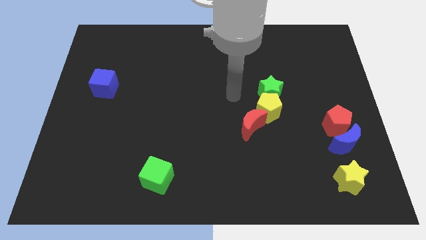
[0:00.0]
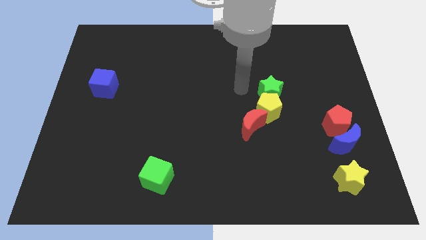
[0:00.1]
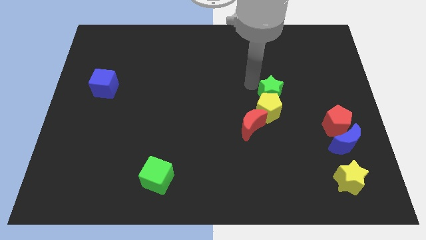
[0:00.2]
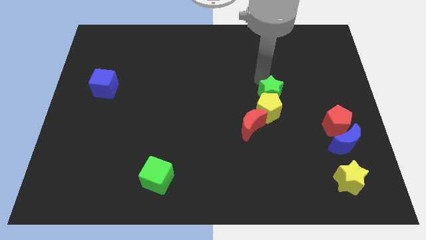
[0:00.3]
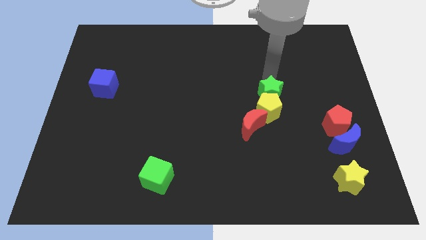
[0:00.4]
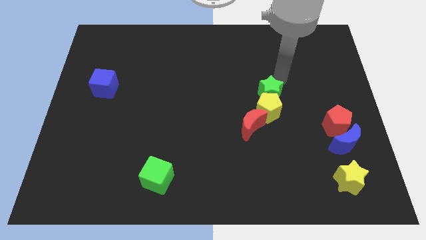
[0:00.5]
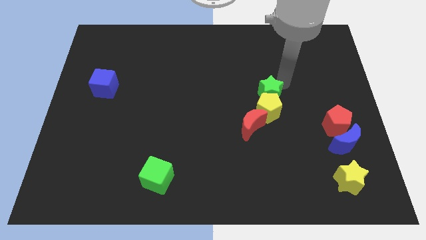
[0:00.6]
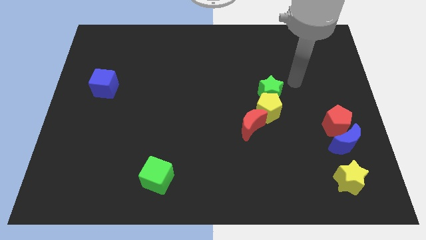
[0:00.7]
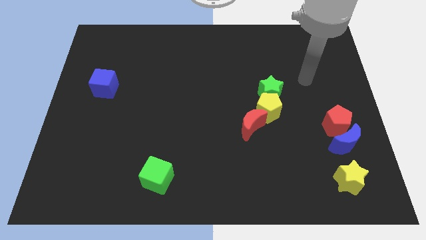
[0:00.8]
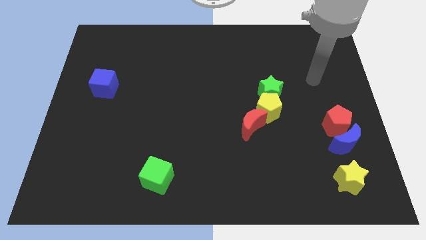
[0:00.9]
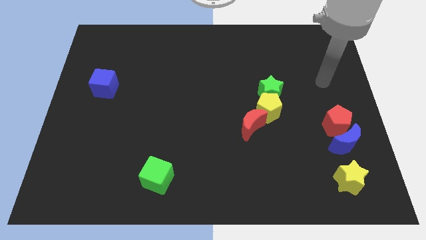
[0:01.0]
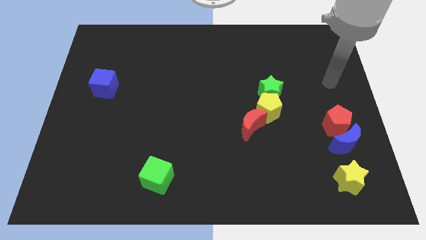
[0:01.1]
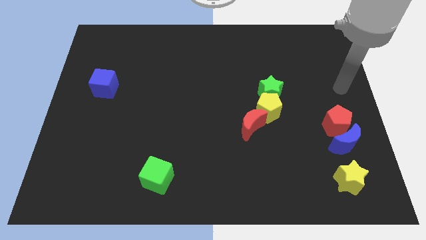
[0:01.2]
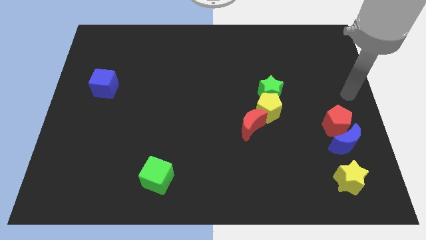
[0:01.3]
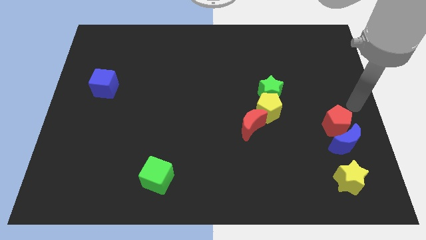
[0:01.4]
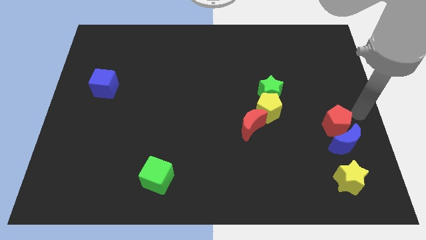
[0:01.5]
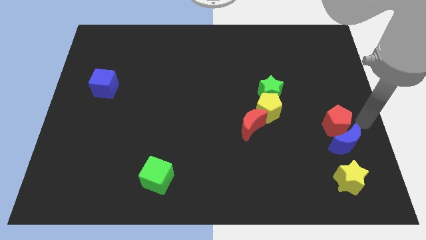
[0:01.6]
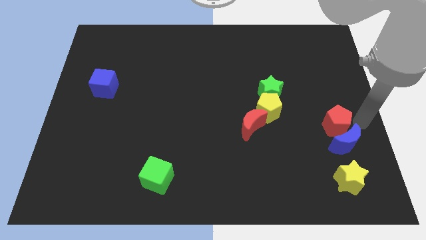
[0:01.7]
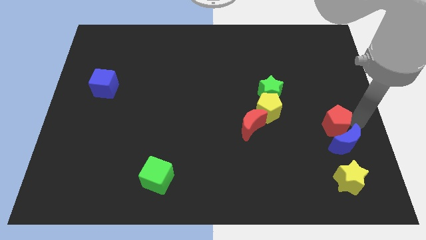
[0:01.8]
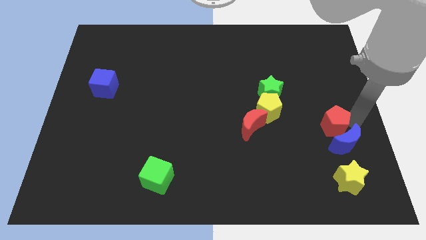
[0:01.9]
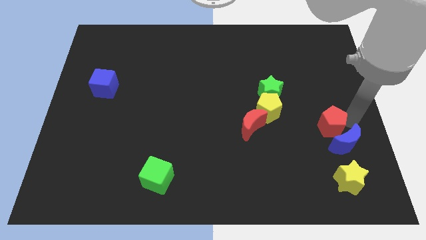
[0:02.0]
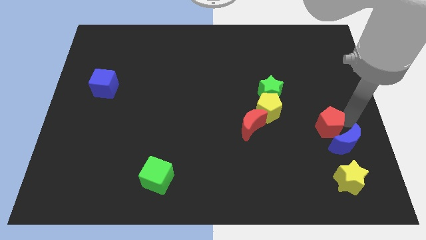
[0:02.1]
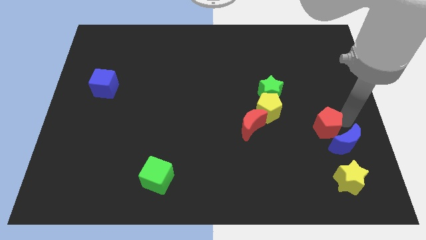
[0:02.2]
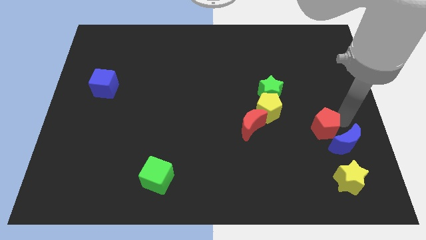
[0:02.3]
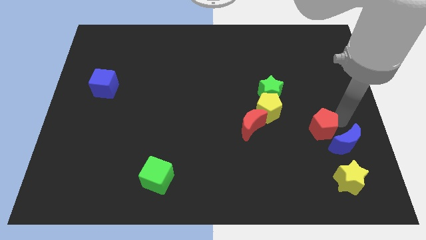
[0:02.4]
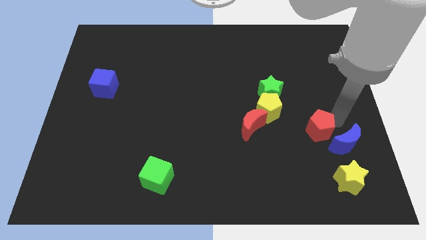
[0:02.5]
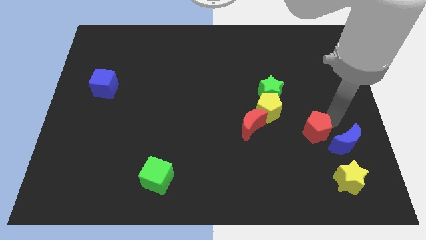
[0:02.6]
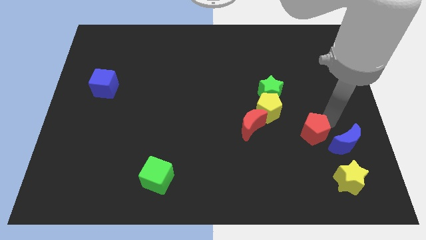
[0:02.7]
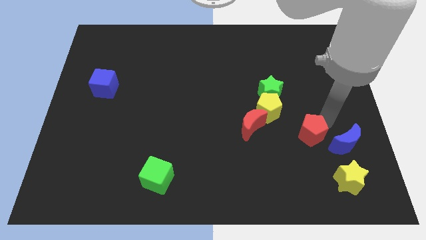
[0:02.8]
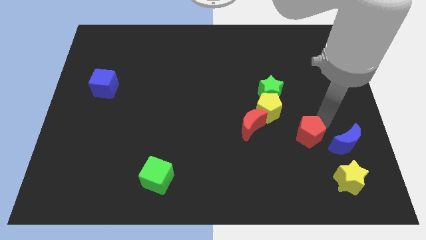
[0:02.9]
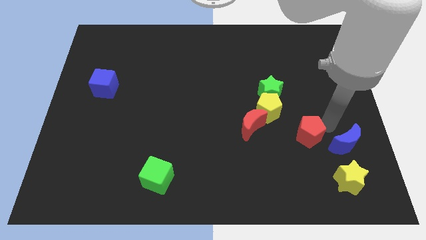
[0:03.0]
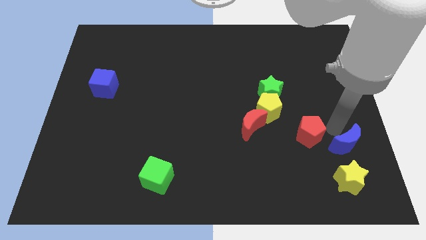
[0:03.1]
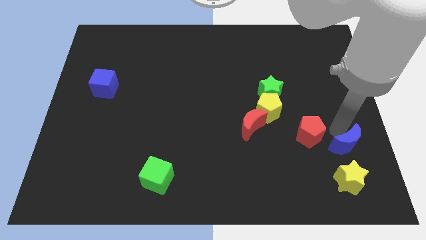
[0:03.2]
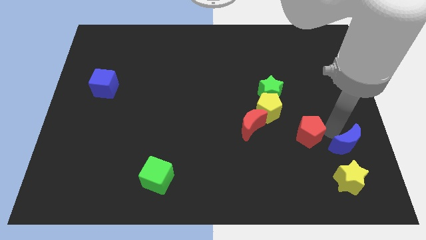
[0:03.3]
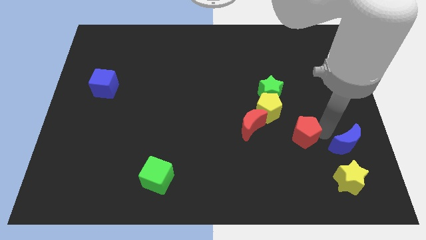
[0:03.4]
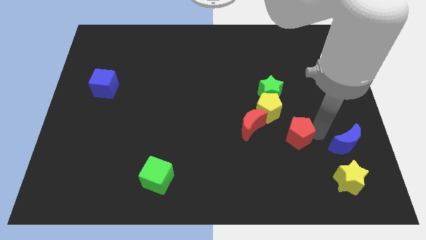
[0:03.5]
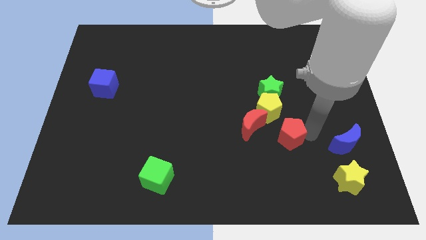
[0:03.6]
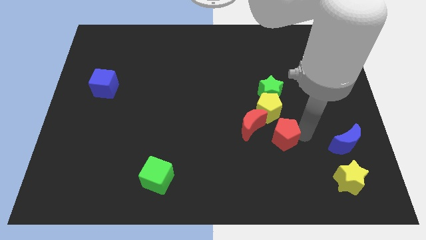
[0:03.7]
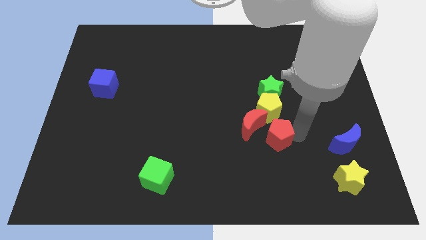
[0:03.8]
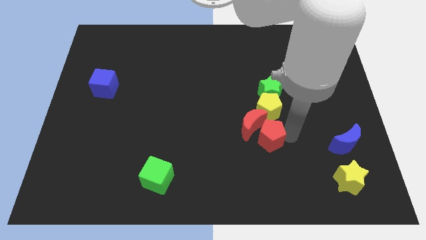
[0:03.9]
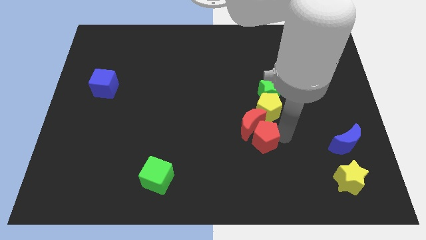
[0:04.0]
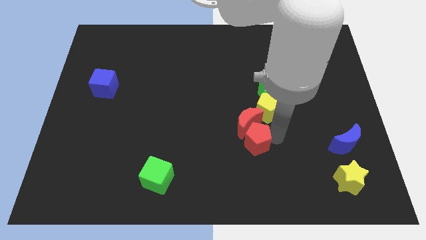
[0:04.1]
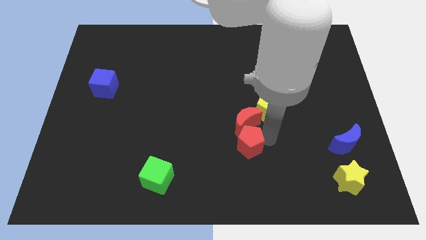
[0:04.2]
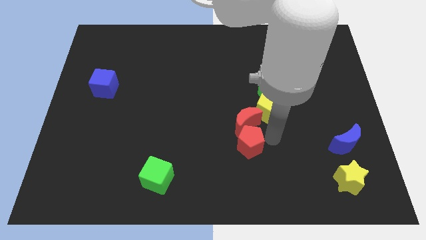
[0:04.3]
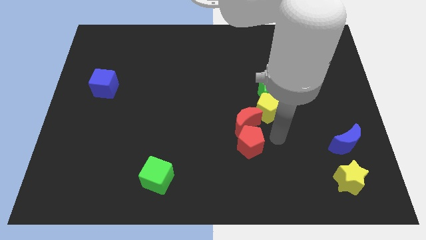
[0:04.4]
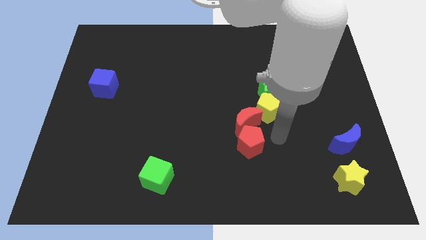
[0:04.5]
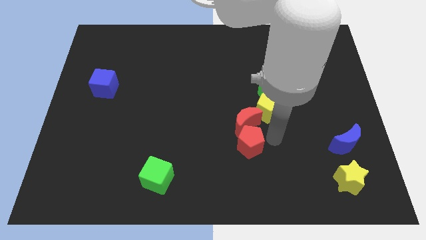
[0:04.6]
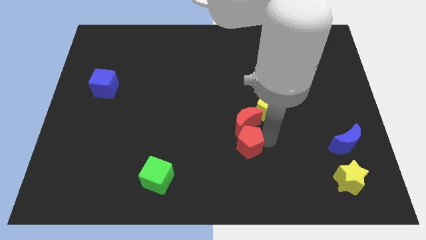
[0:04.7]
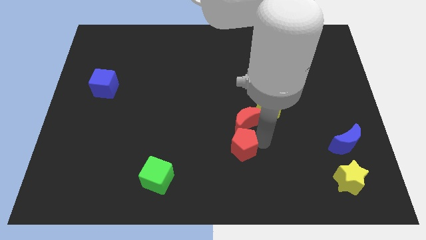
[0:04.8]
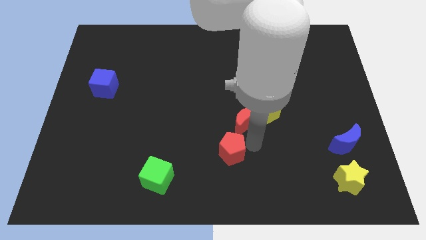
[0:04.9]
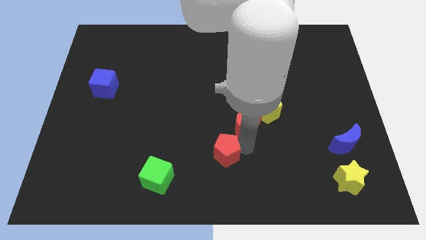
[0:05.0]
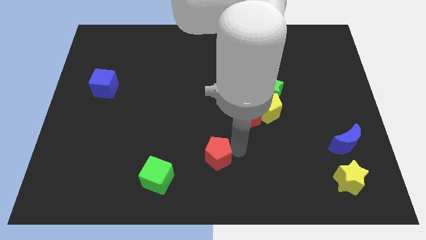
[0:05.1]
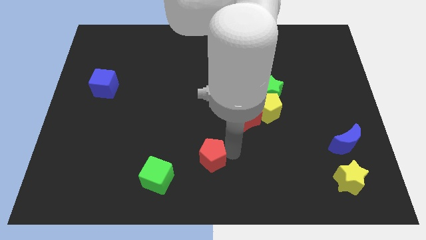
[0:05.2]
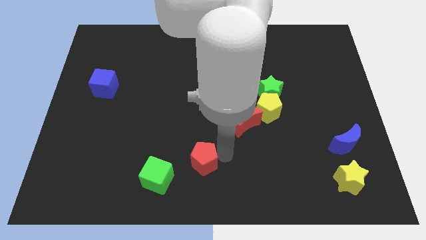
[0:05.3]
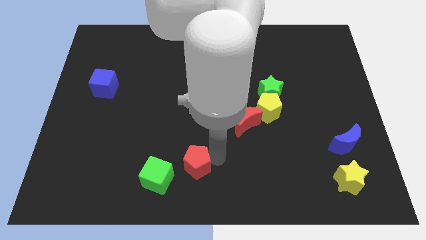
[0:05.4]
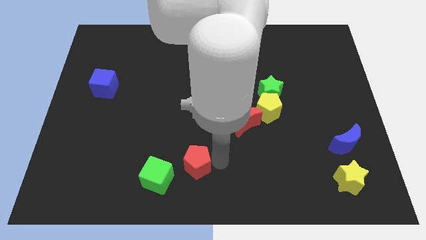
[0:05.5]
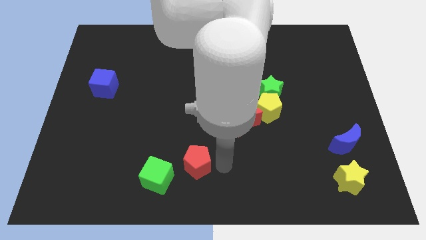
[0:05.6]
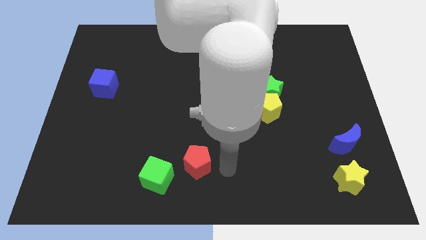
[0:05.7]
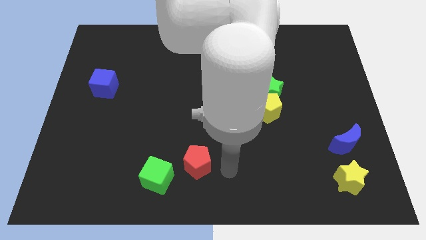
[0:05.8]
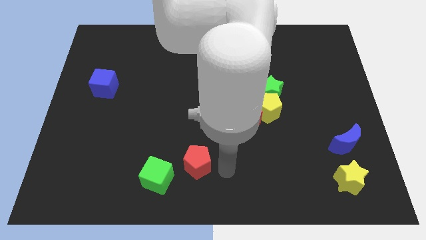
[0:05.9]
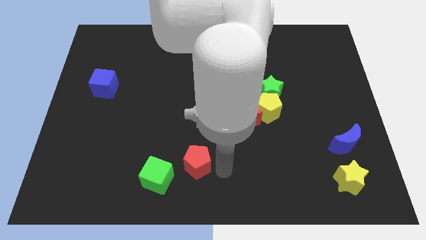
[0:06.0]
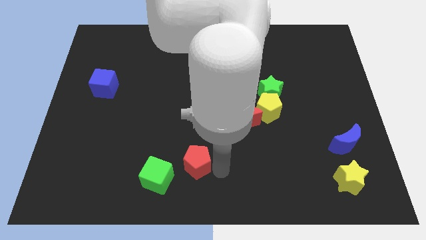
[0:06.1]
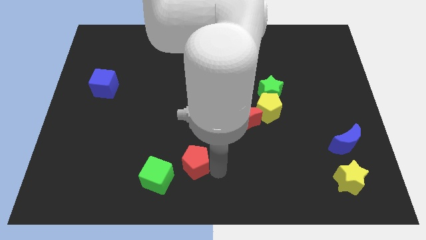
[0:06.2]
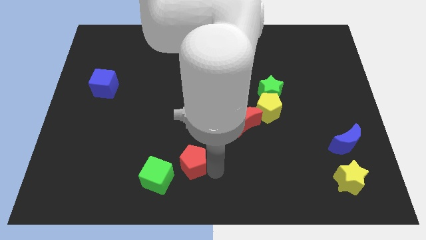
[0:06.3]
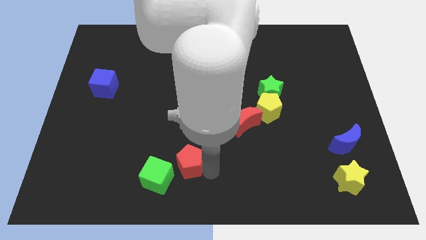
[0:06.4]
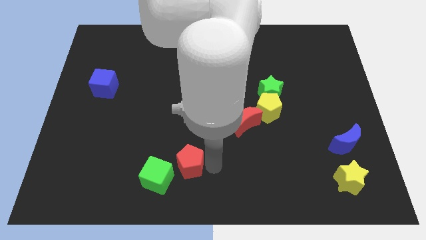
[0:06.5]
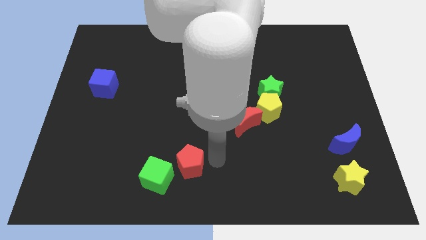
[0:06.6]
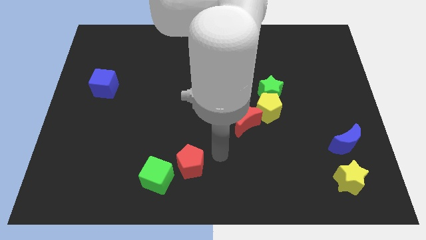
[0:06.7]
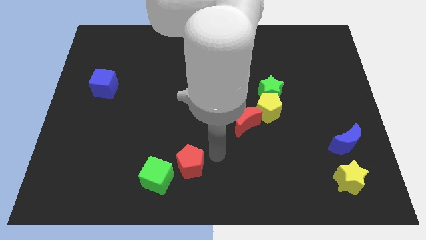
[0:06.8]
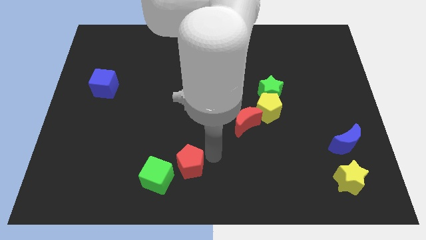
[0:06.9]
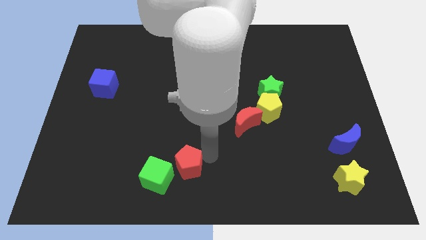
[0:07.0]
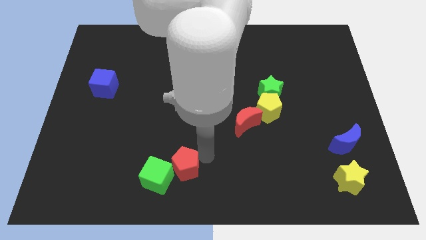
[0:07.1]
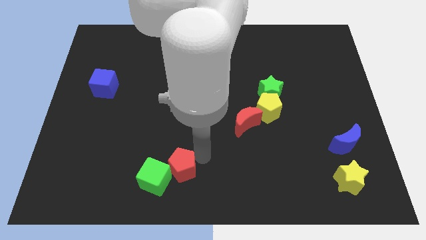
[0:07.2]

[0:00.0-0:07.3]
move the red pentagon close to the green cube
